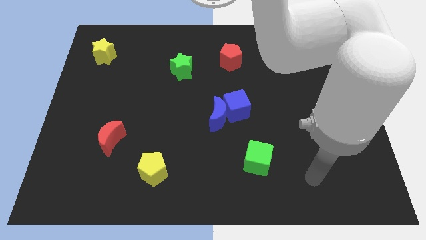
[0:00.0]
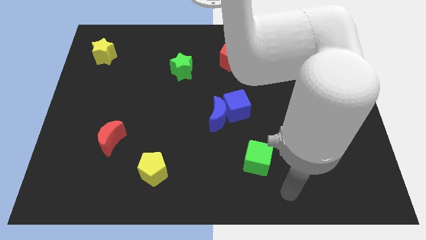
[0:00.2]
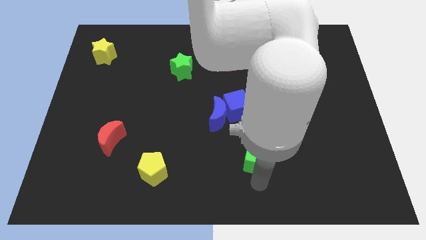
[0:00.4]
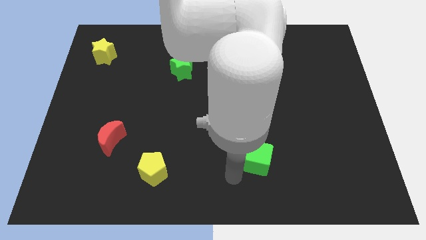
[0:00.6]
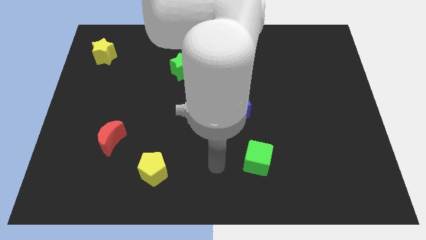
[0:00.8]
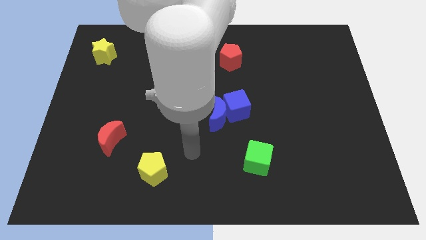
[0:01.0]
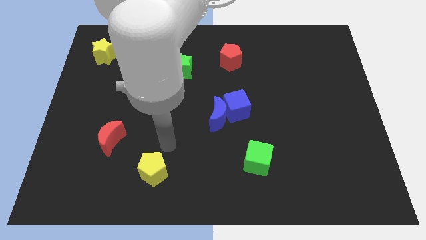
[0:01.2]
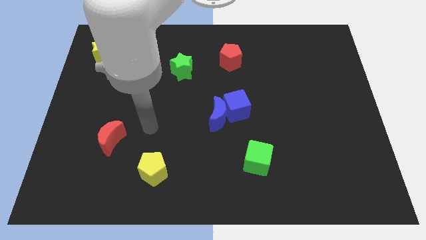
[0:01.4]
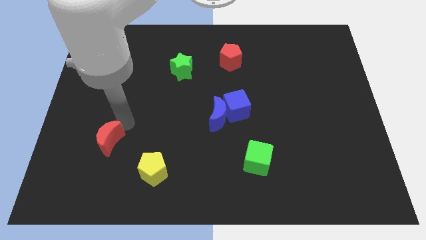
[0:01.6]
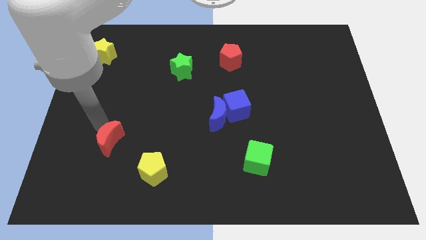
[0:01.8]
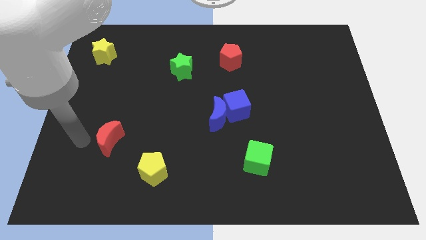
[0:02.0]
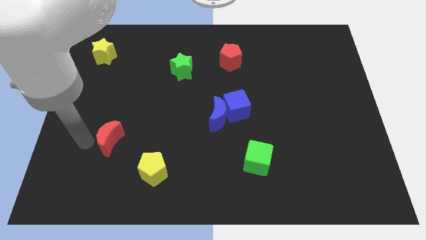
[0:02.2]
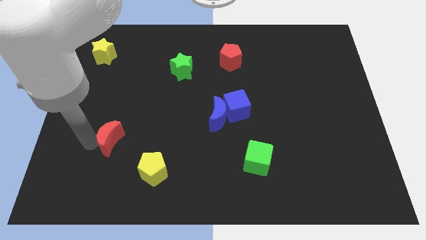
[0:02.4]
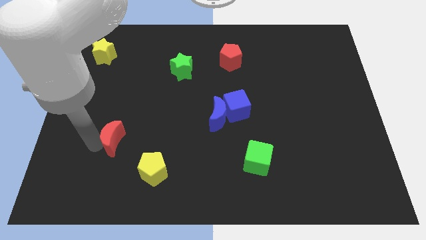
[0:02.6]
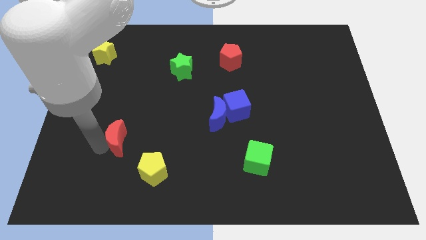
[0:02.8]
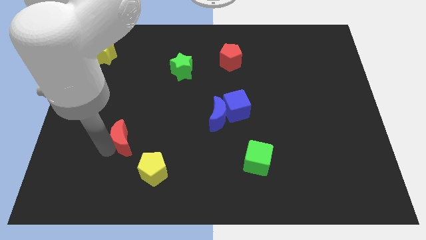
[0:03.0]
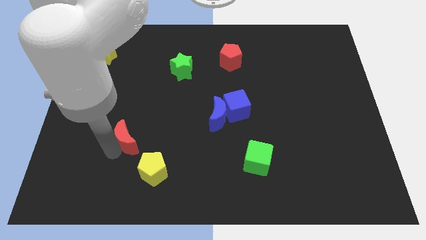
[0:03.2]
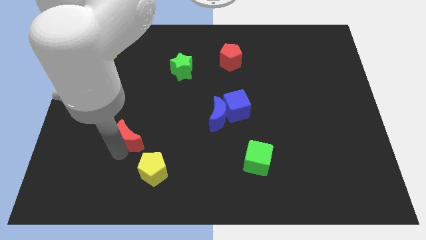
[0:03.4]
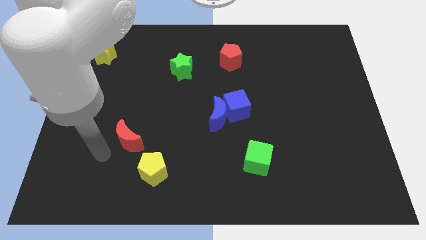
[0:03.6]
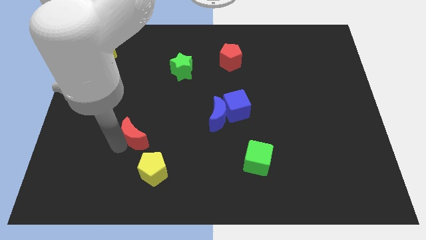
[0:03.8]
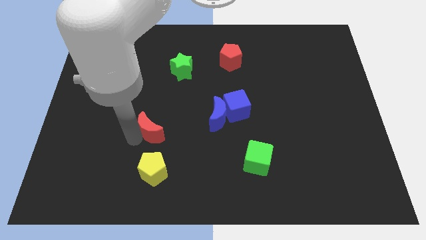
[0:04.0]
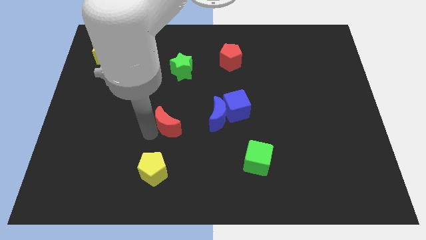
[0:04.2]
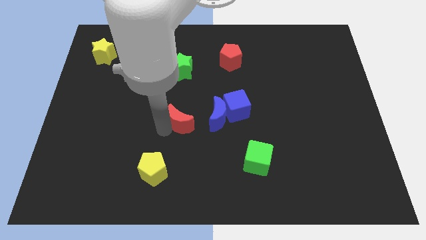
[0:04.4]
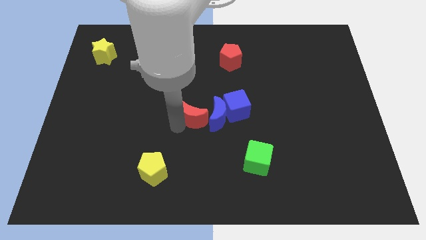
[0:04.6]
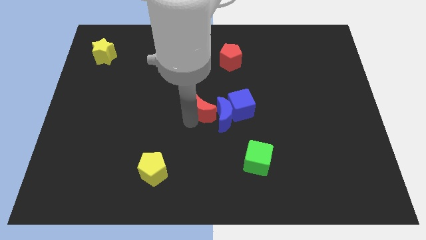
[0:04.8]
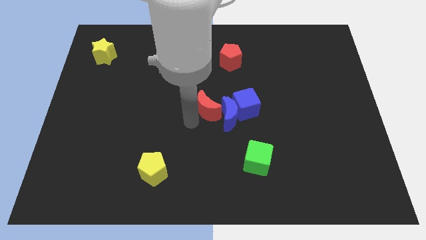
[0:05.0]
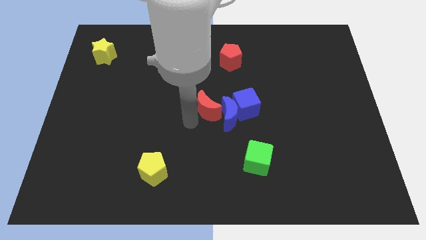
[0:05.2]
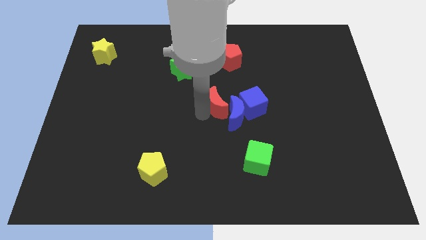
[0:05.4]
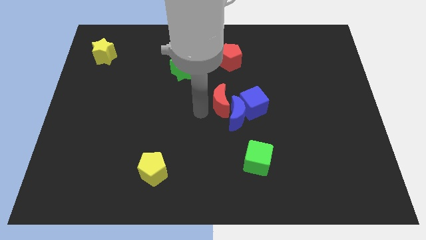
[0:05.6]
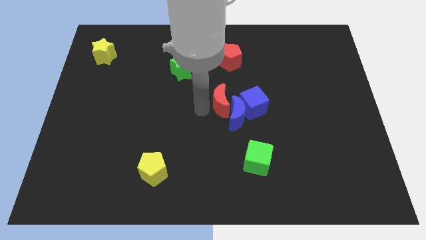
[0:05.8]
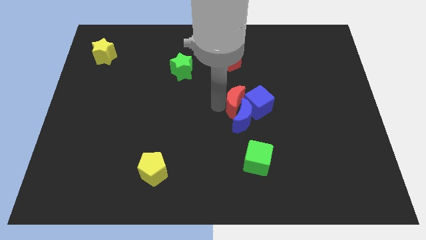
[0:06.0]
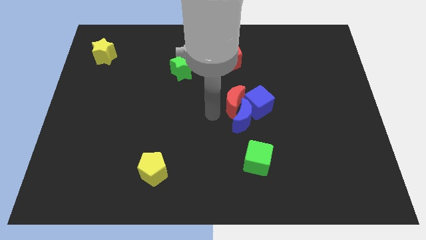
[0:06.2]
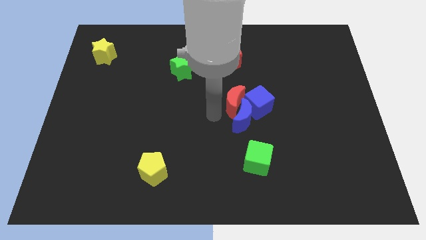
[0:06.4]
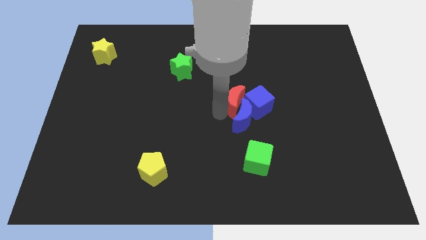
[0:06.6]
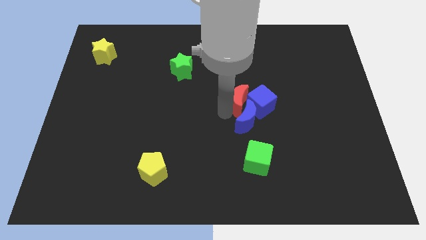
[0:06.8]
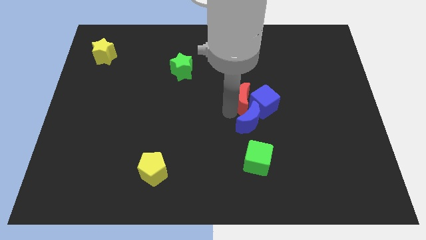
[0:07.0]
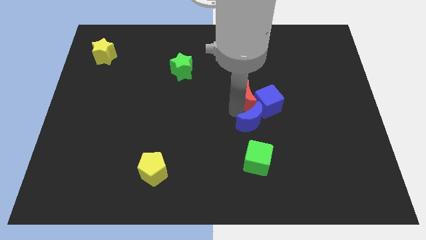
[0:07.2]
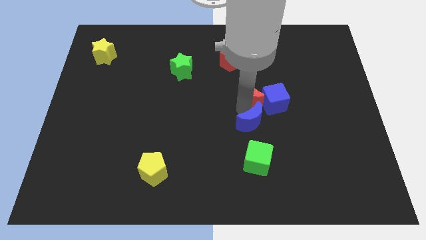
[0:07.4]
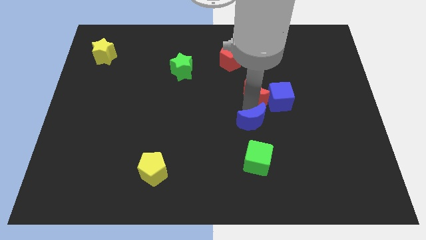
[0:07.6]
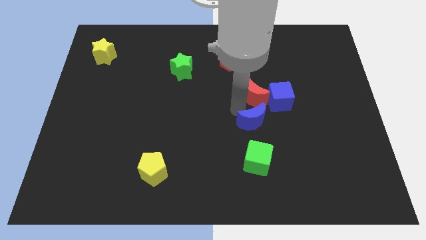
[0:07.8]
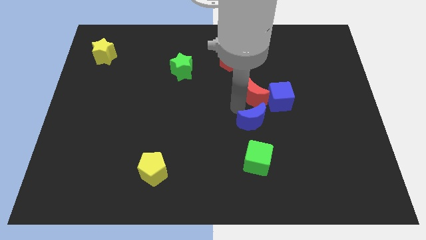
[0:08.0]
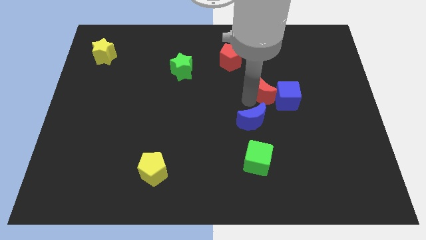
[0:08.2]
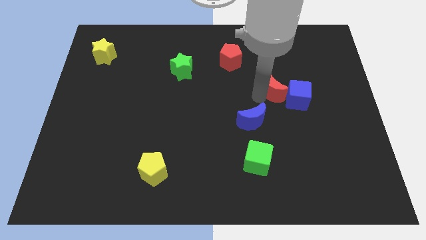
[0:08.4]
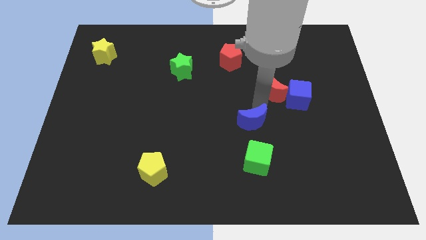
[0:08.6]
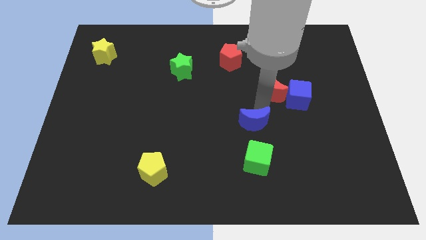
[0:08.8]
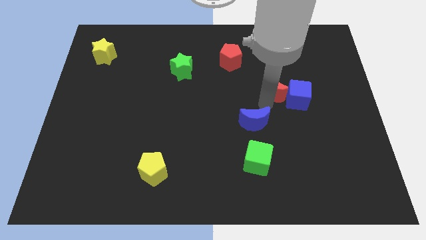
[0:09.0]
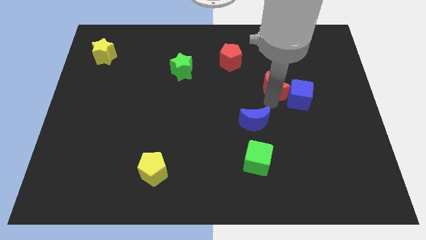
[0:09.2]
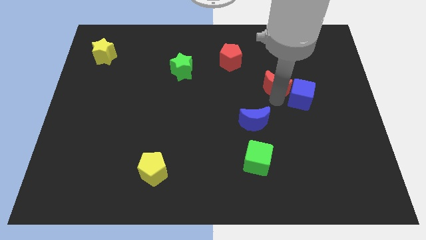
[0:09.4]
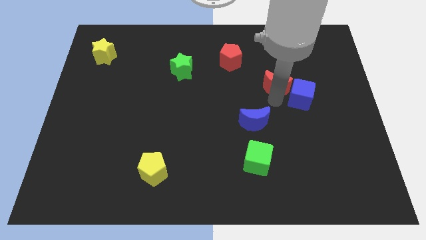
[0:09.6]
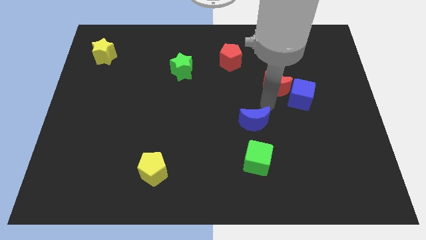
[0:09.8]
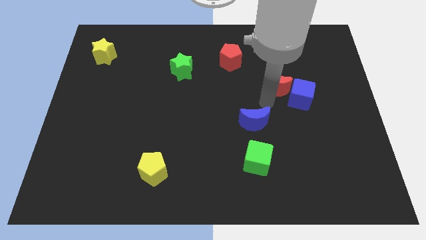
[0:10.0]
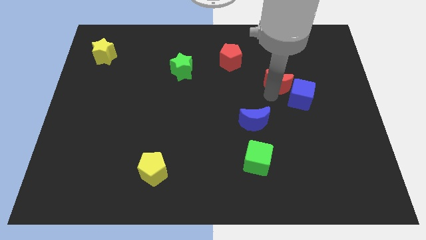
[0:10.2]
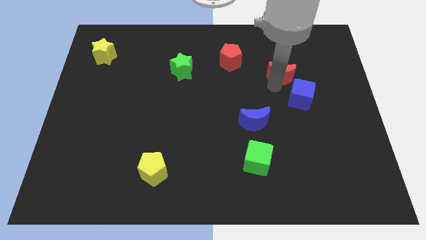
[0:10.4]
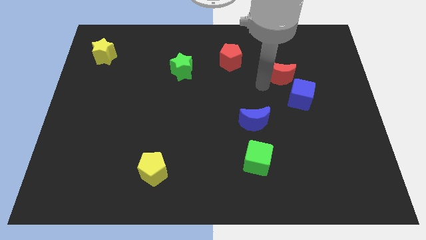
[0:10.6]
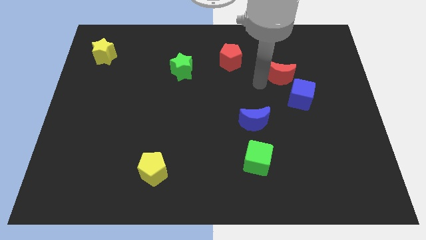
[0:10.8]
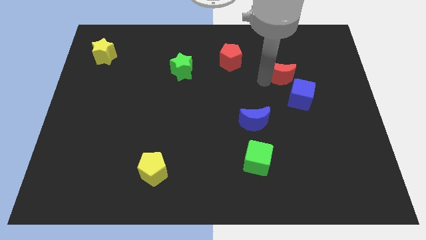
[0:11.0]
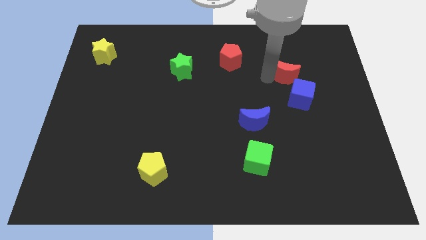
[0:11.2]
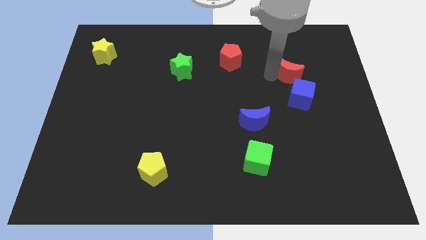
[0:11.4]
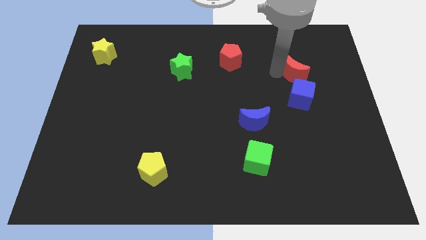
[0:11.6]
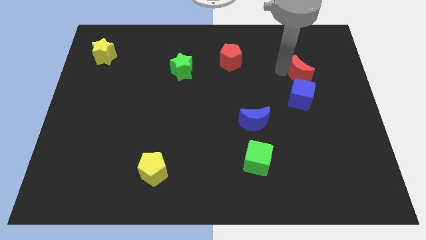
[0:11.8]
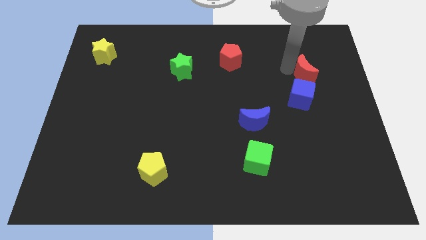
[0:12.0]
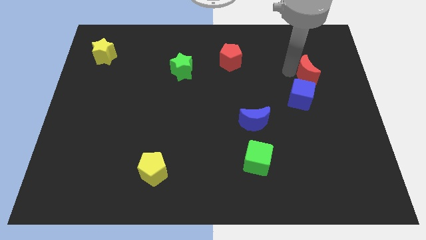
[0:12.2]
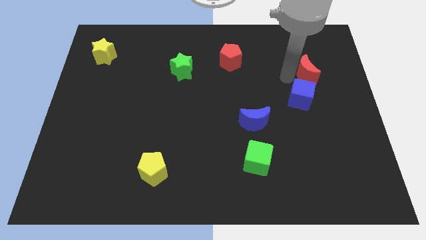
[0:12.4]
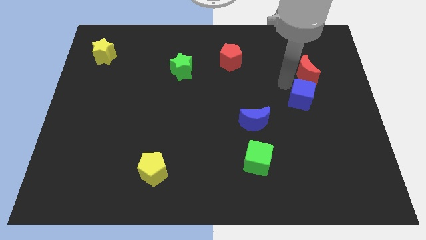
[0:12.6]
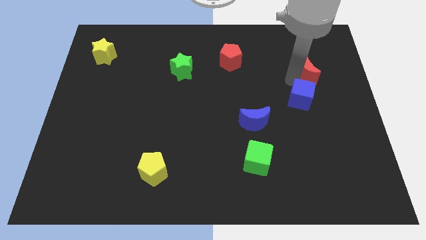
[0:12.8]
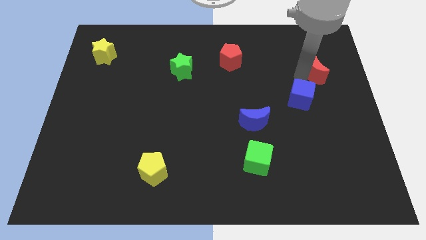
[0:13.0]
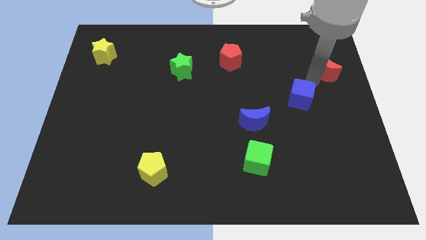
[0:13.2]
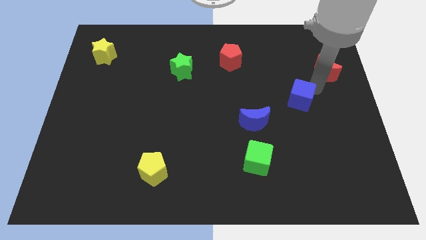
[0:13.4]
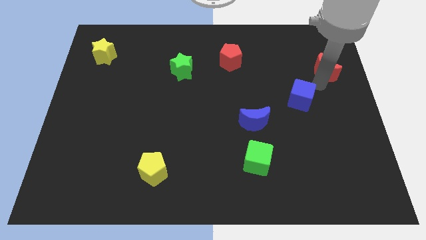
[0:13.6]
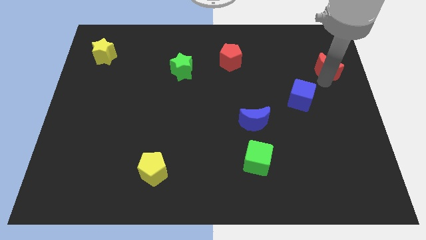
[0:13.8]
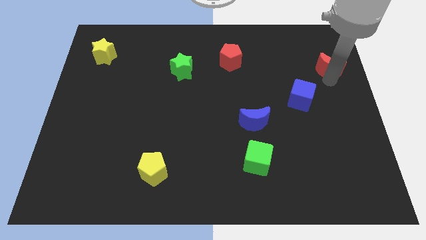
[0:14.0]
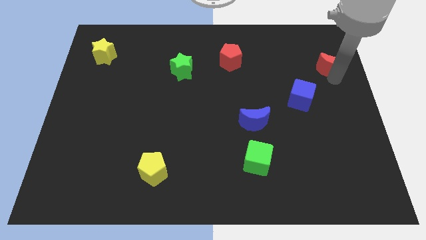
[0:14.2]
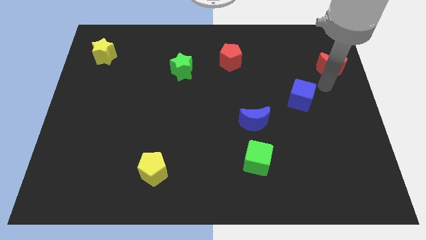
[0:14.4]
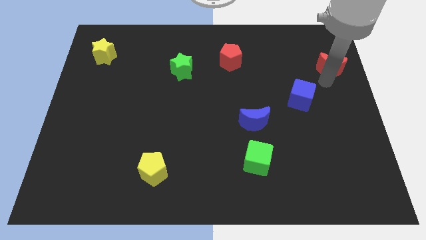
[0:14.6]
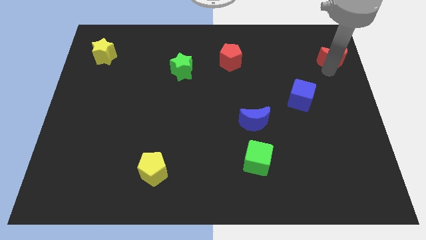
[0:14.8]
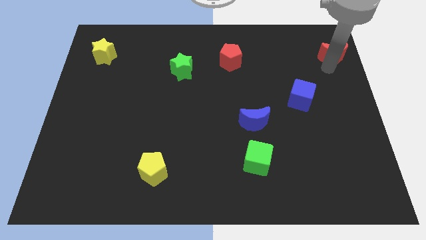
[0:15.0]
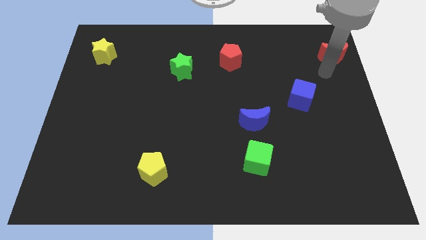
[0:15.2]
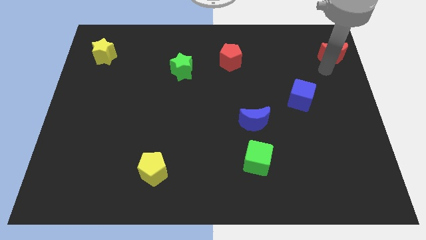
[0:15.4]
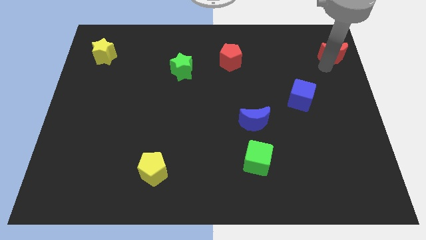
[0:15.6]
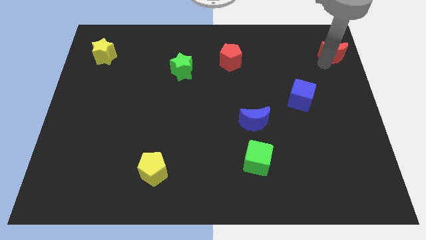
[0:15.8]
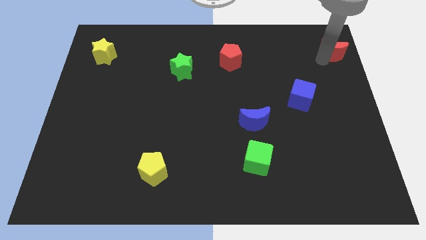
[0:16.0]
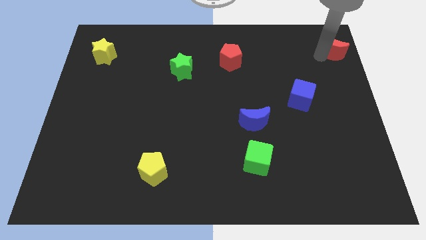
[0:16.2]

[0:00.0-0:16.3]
put the red moon to the top right of the board
